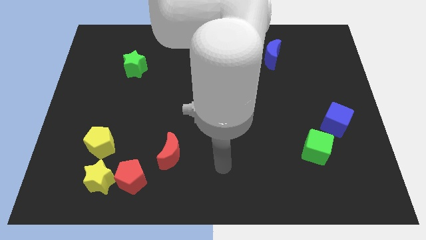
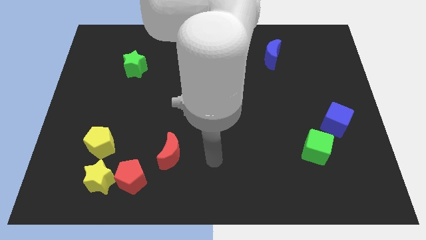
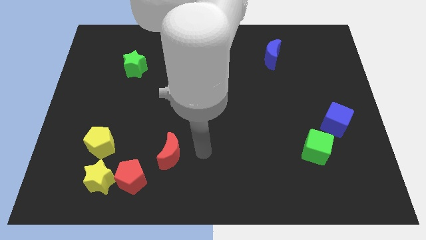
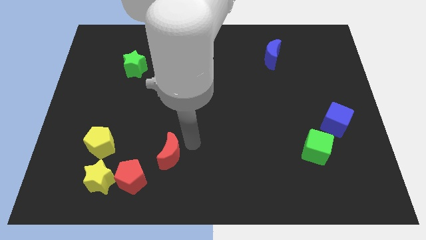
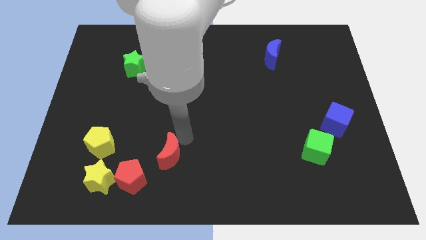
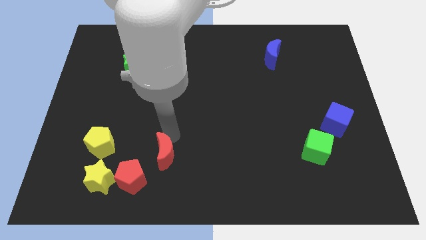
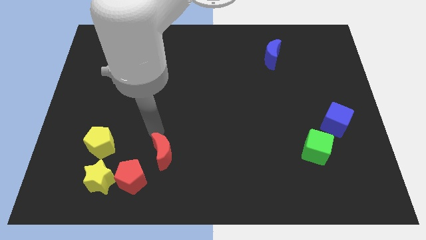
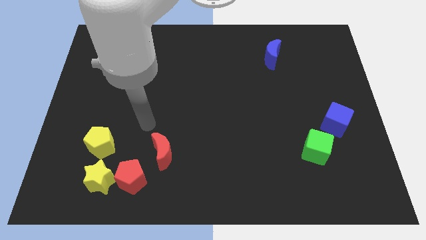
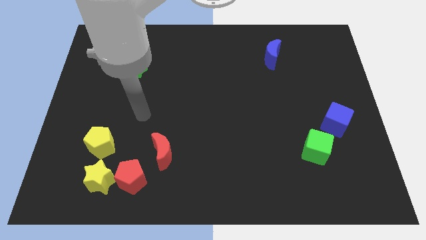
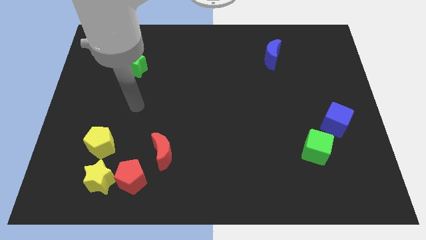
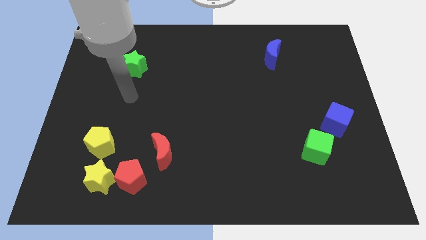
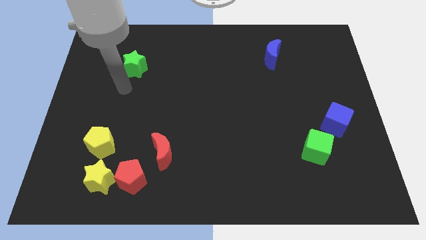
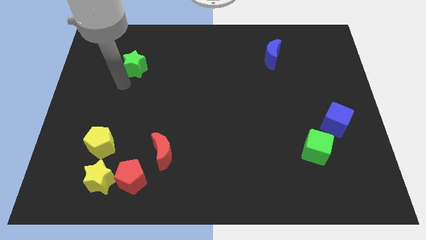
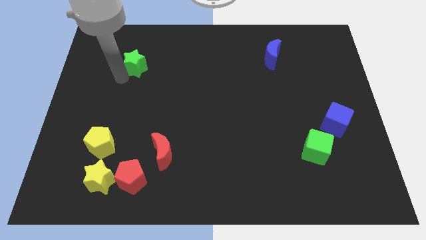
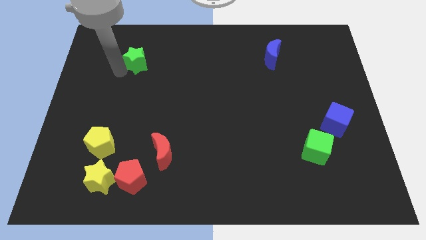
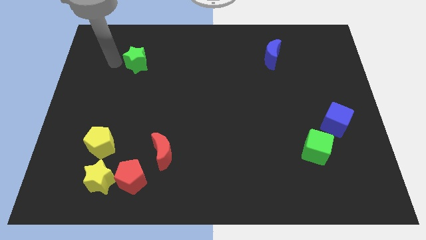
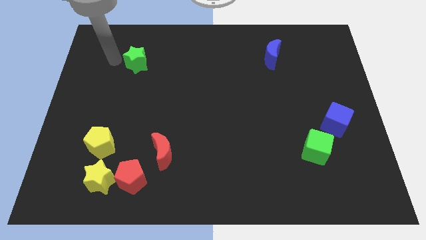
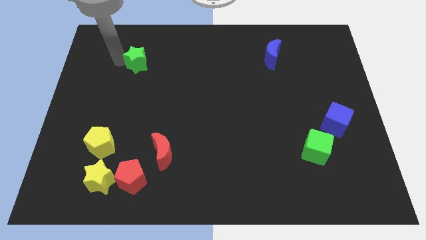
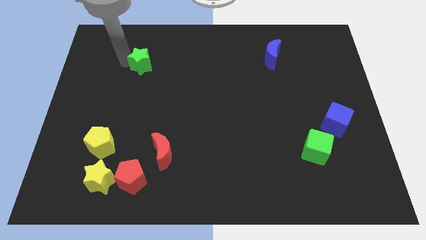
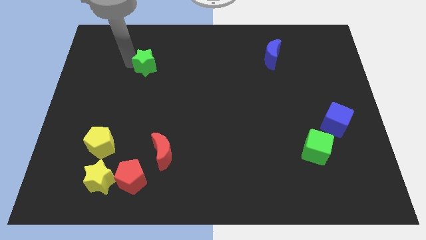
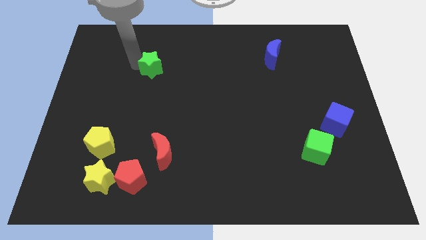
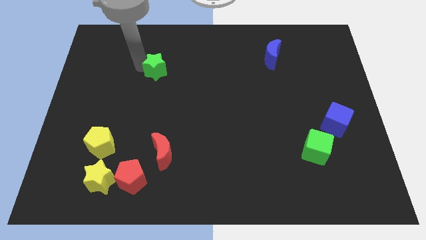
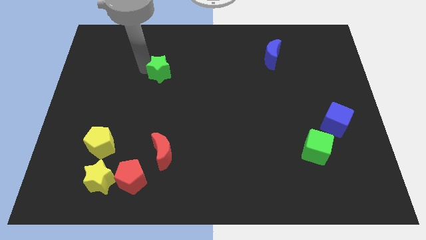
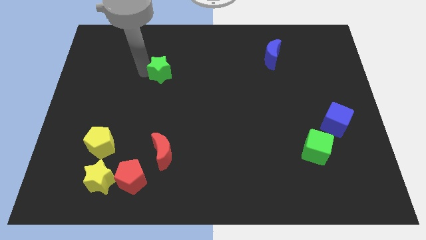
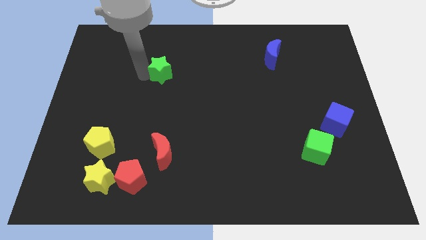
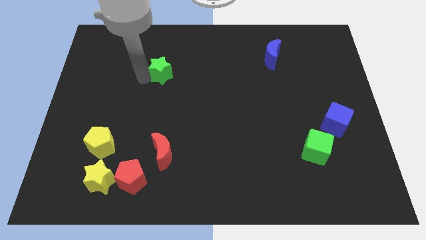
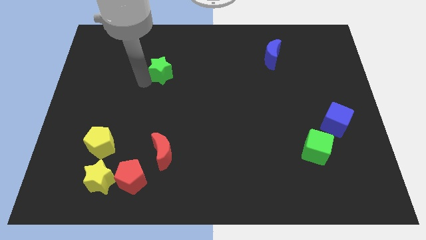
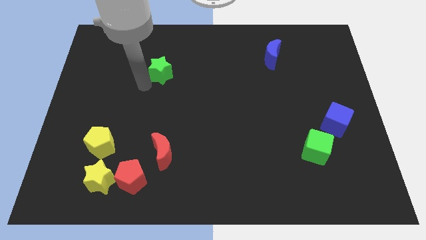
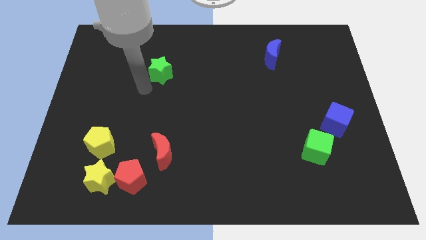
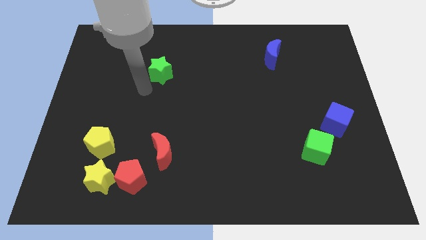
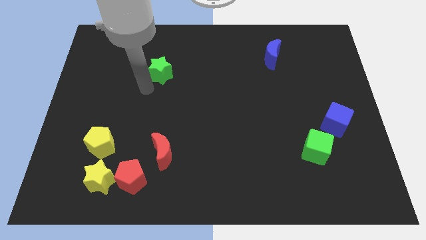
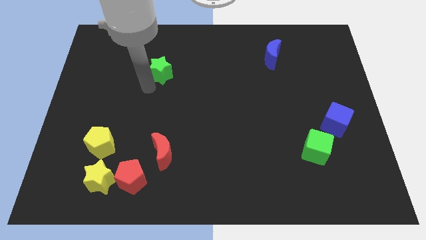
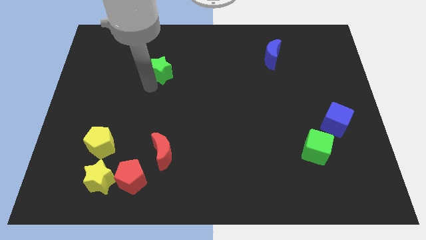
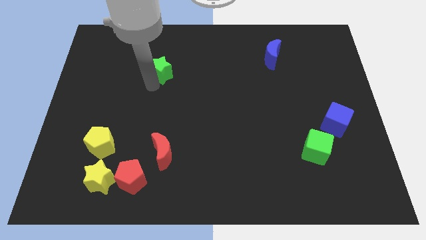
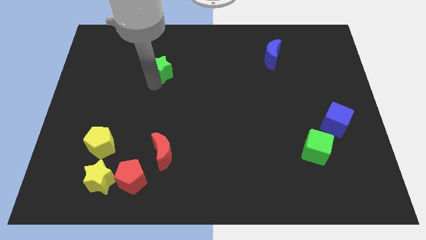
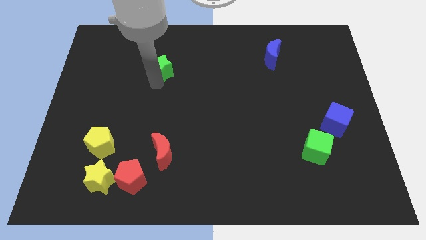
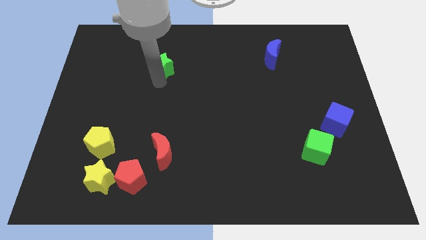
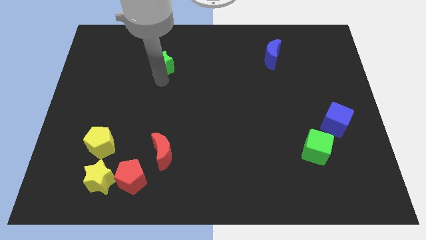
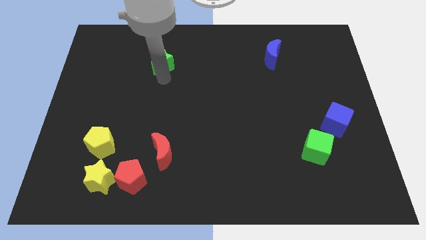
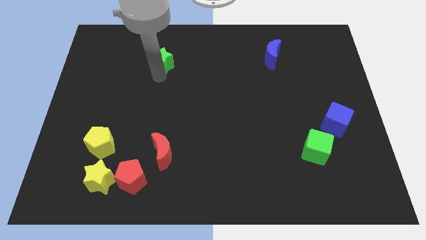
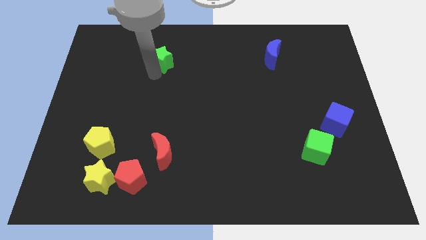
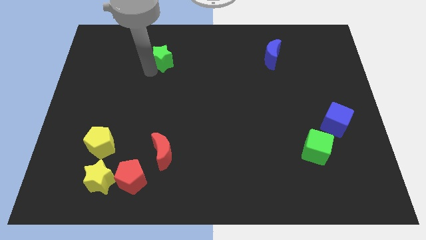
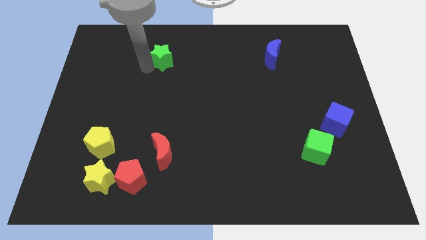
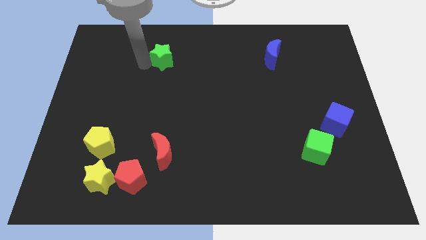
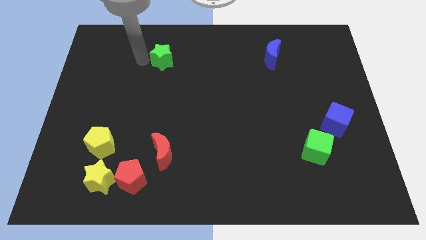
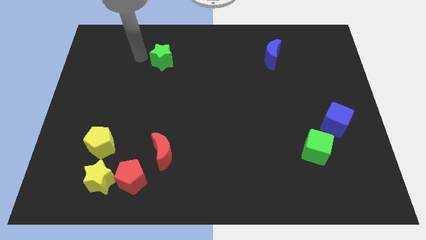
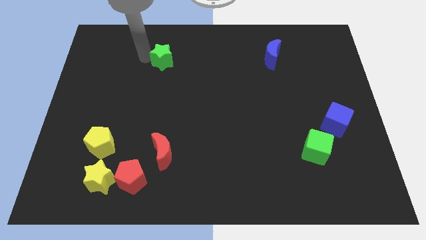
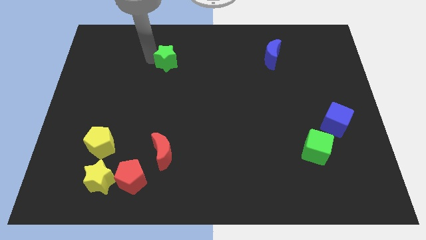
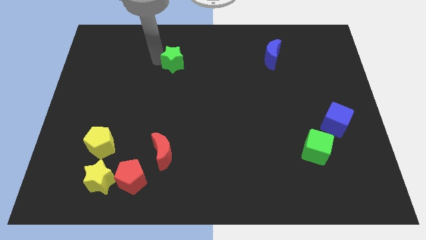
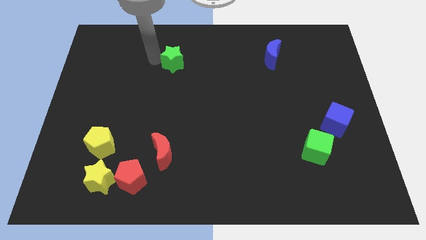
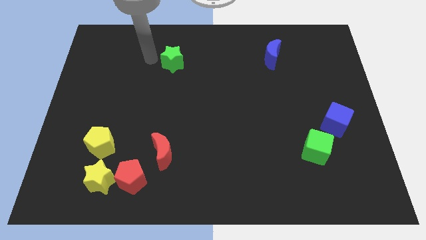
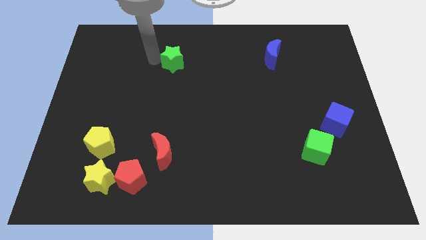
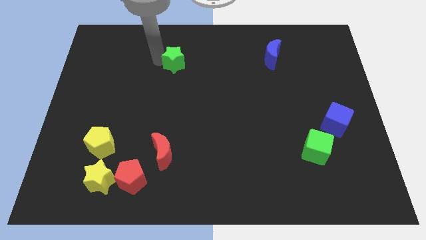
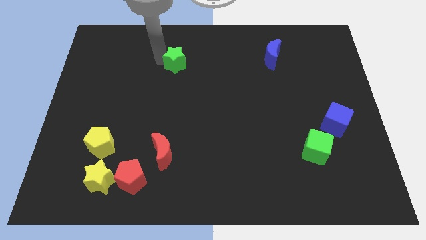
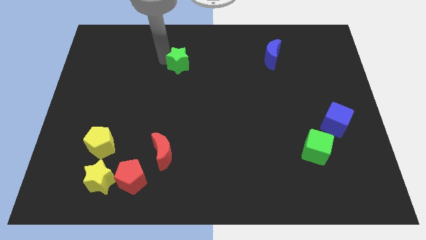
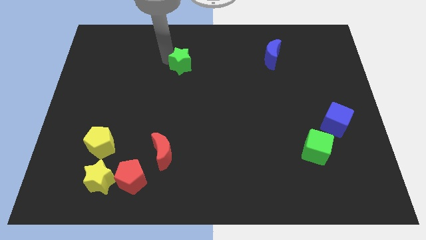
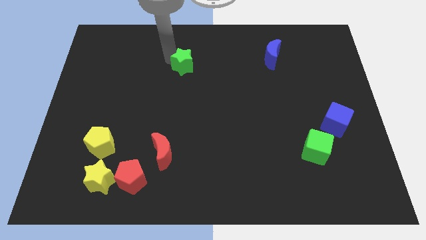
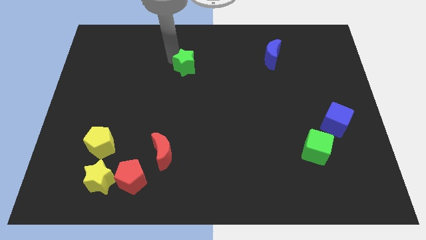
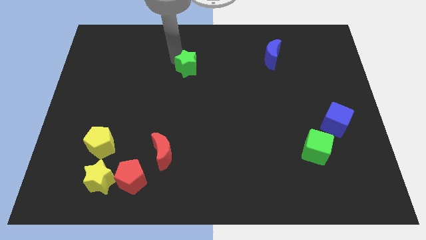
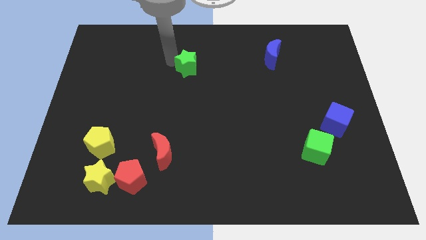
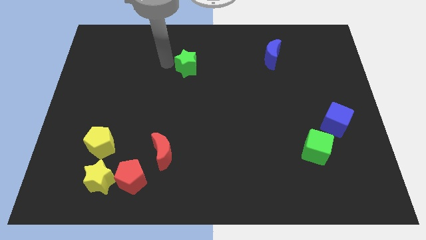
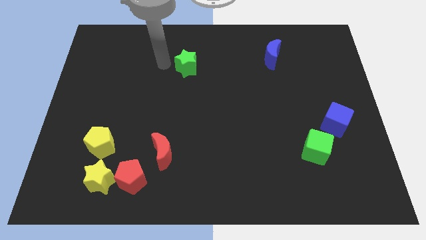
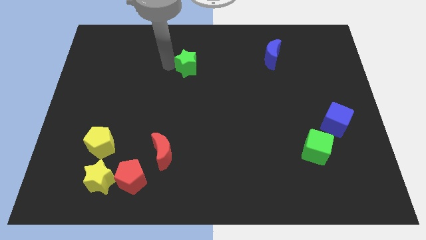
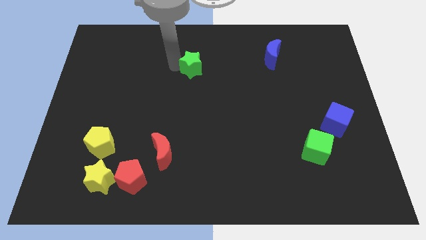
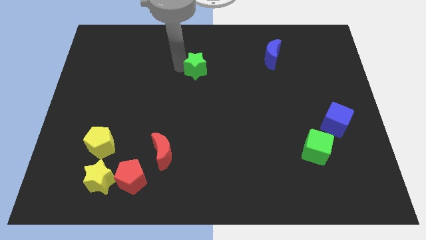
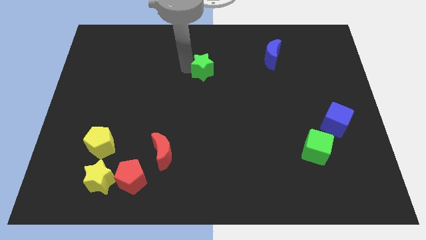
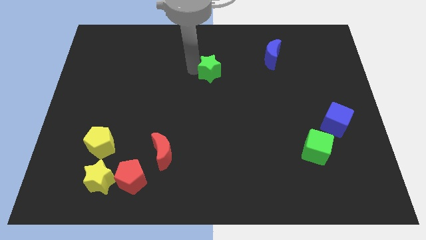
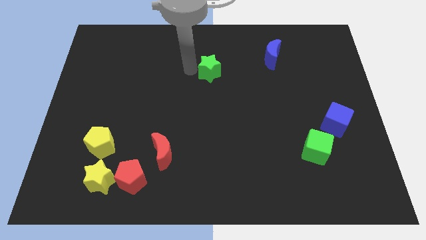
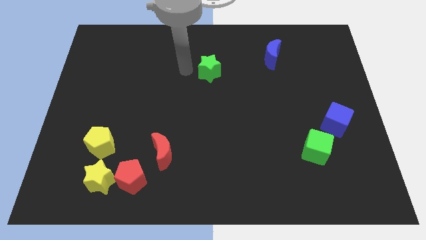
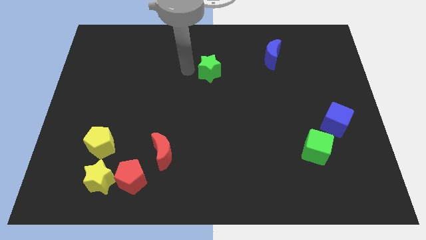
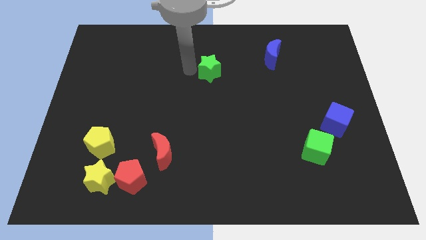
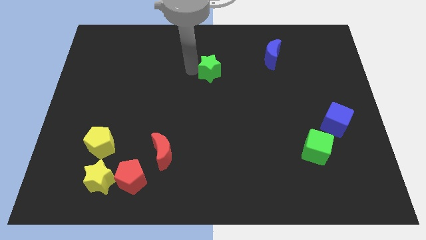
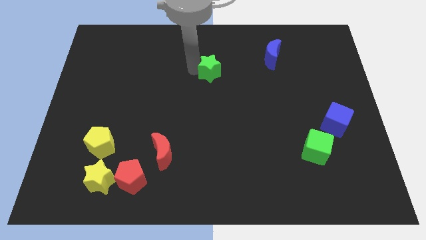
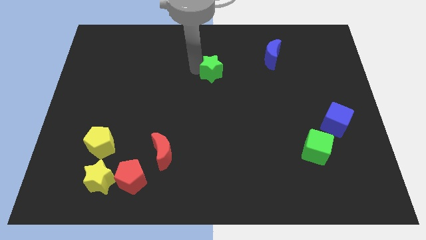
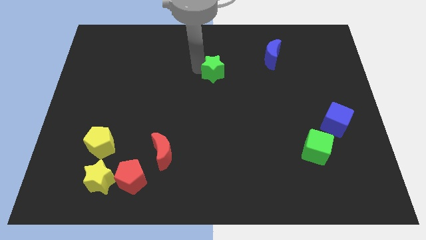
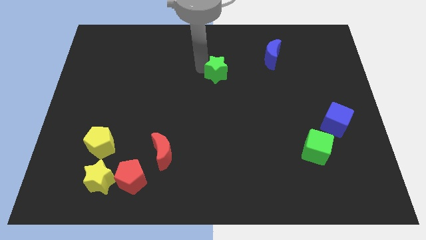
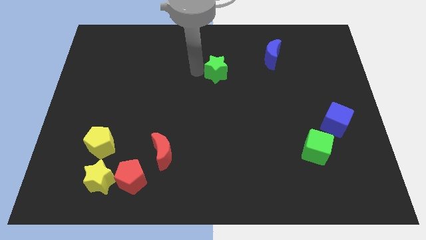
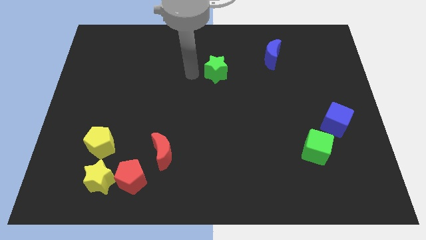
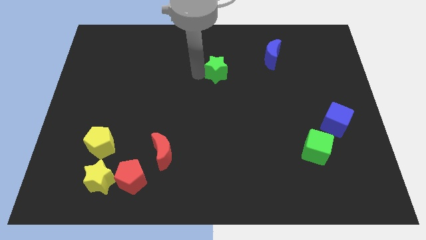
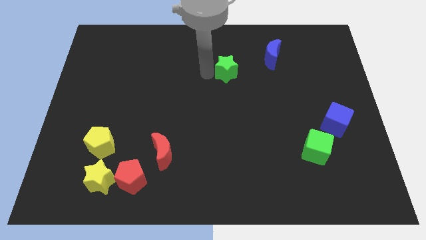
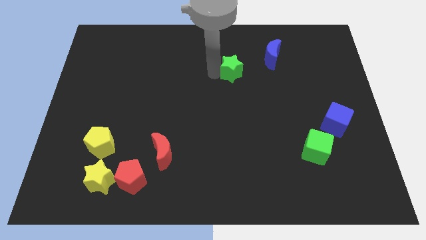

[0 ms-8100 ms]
push the green star diagonally down and to the left of the blue moon

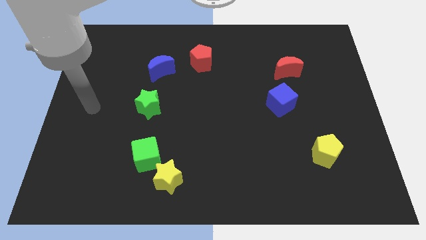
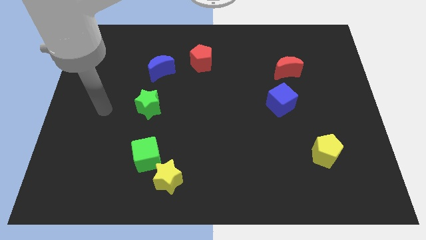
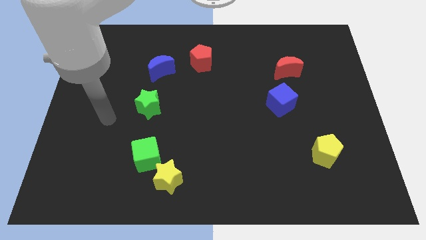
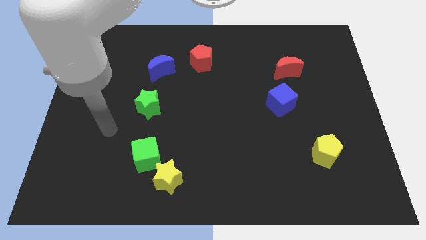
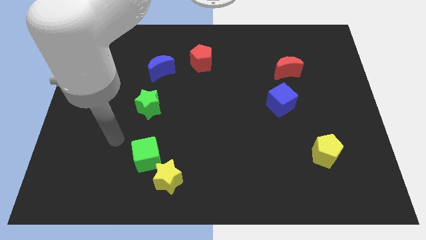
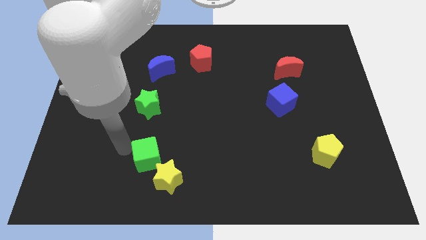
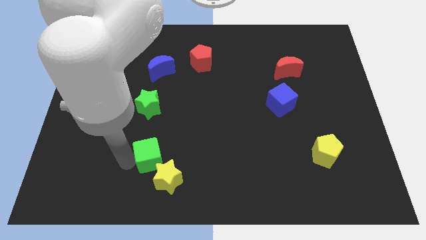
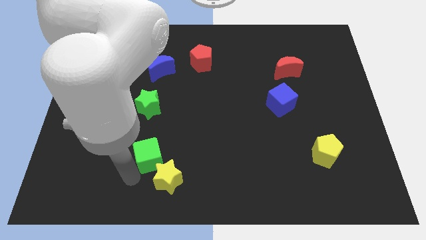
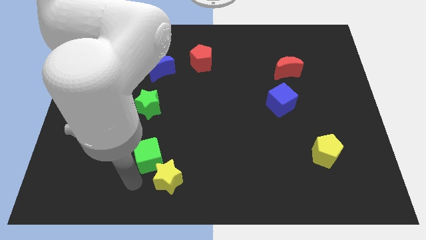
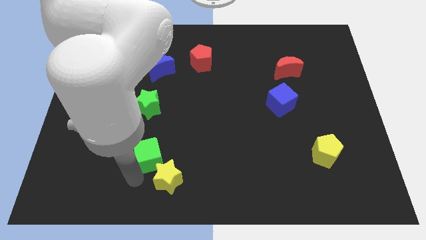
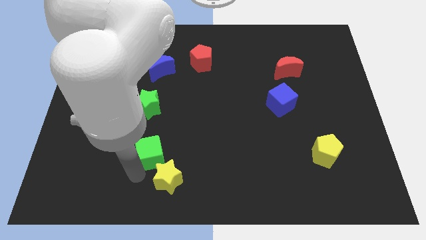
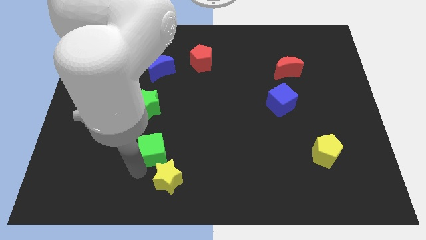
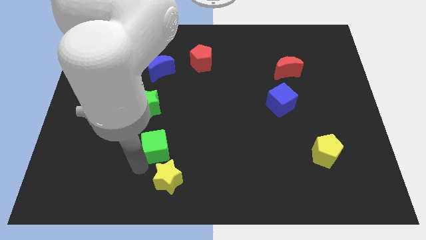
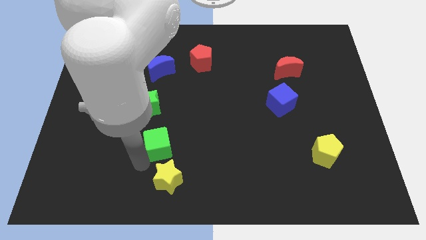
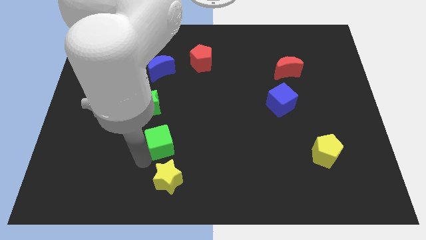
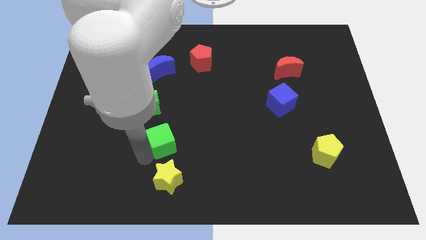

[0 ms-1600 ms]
push the green cube to the bottom right side of the green star
